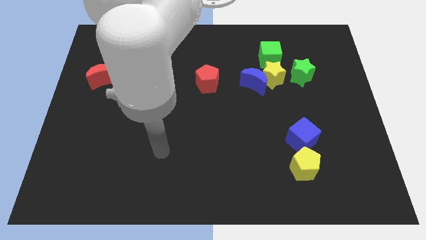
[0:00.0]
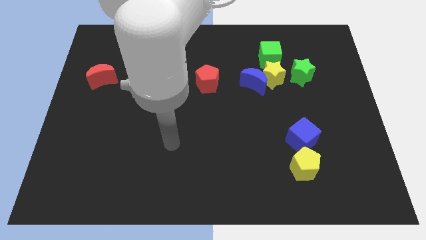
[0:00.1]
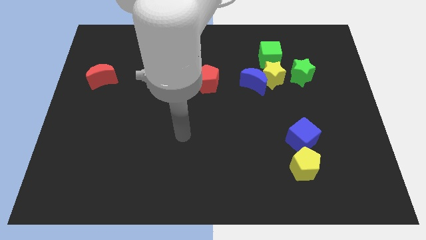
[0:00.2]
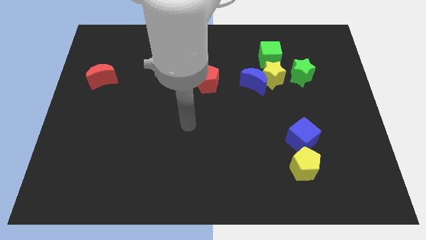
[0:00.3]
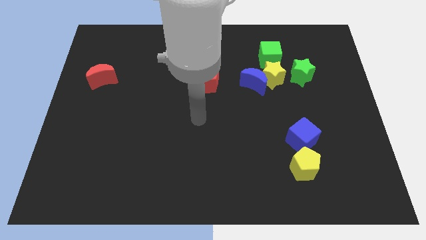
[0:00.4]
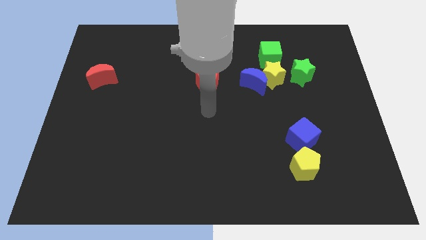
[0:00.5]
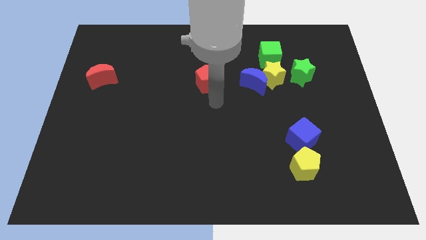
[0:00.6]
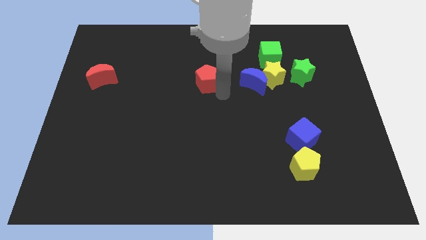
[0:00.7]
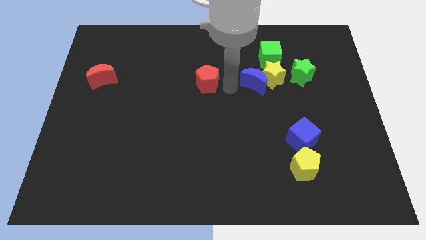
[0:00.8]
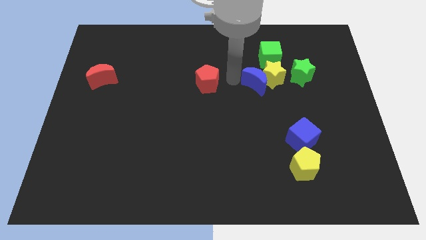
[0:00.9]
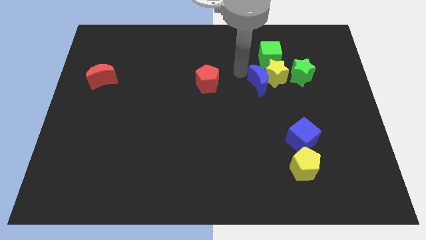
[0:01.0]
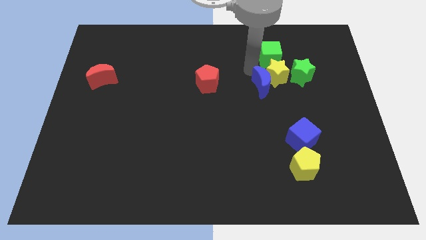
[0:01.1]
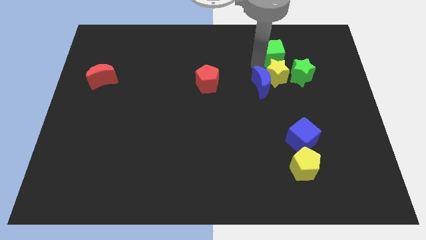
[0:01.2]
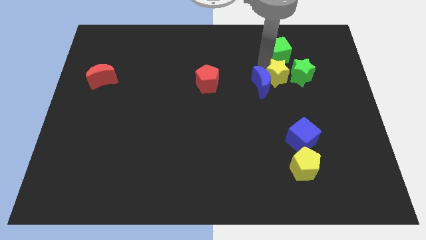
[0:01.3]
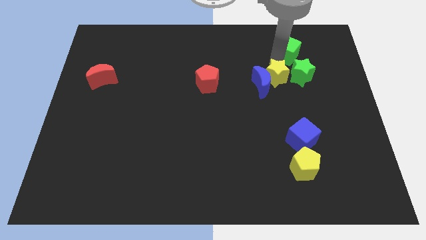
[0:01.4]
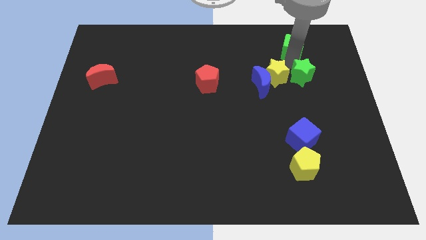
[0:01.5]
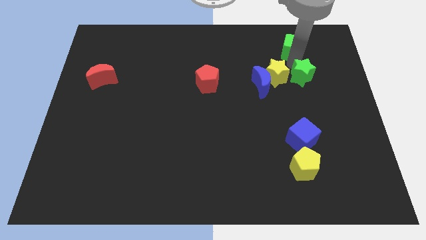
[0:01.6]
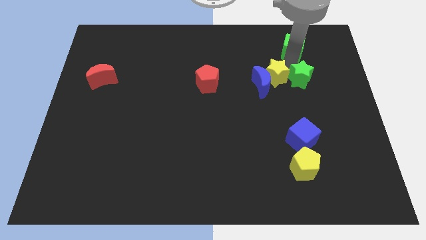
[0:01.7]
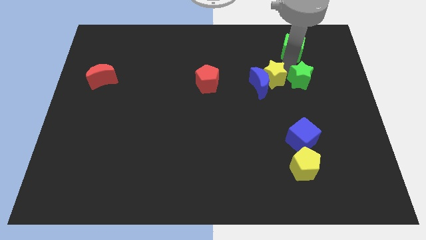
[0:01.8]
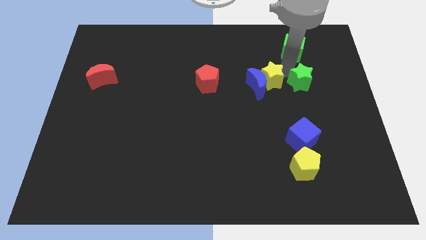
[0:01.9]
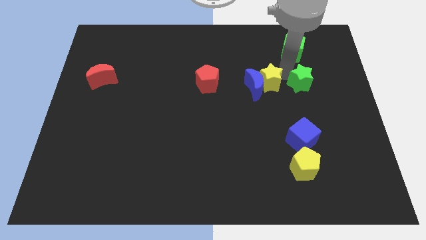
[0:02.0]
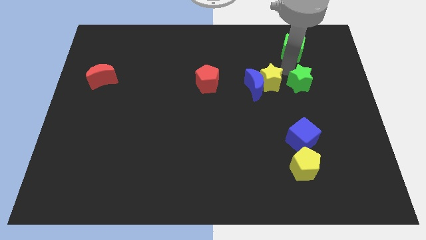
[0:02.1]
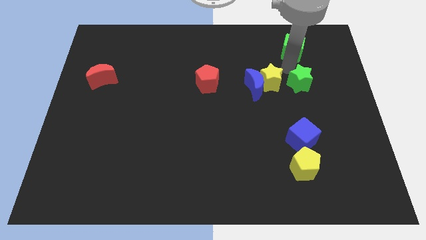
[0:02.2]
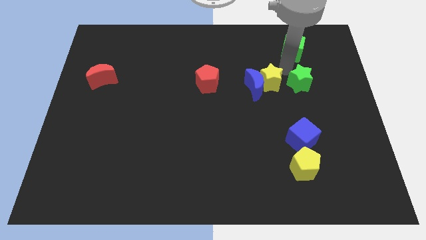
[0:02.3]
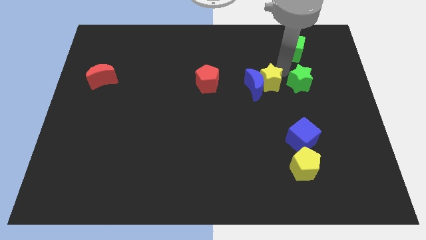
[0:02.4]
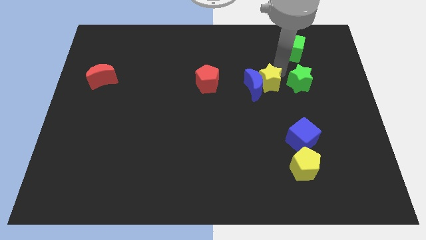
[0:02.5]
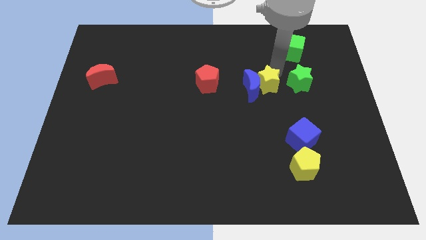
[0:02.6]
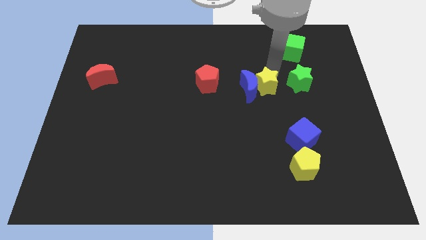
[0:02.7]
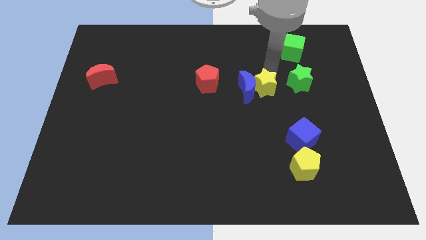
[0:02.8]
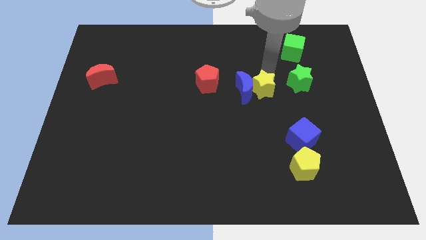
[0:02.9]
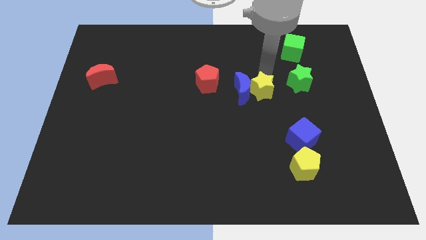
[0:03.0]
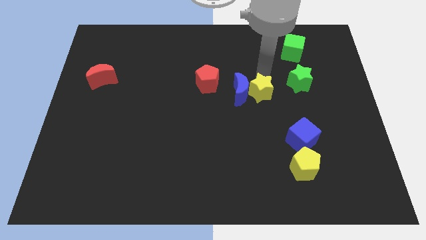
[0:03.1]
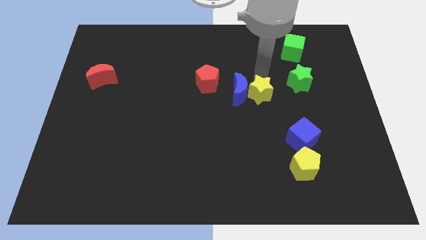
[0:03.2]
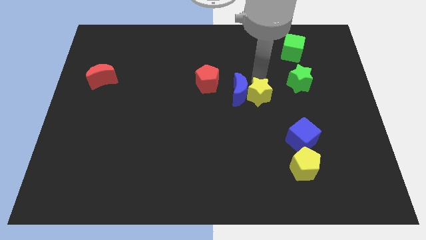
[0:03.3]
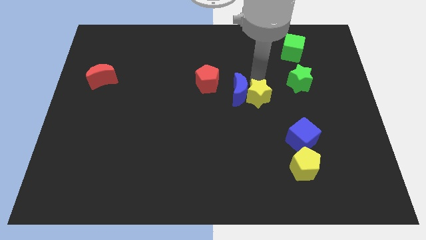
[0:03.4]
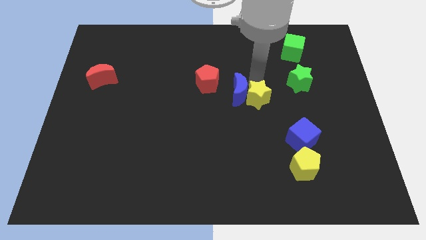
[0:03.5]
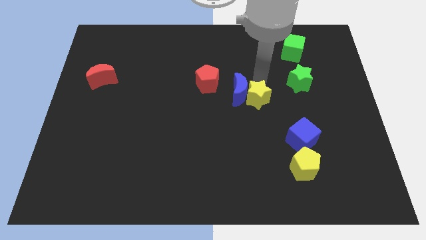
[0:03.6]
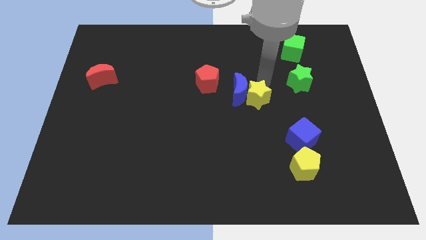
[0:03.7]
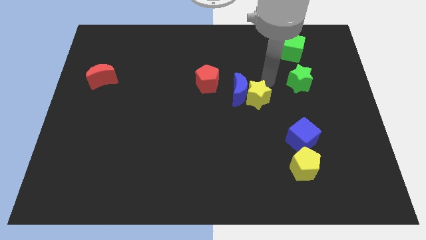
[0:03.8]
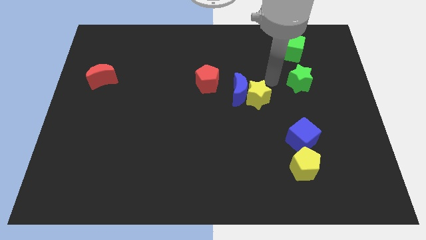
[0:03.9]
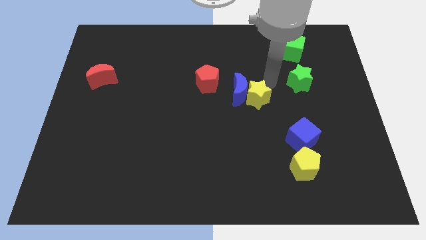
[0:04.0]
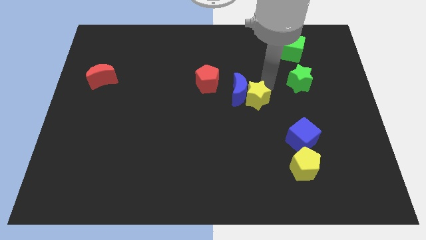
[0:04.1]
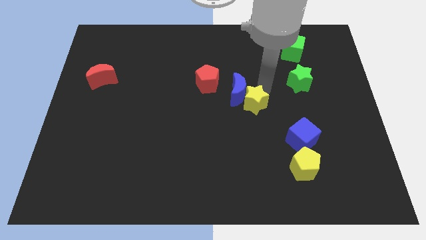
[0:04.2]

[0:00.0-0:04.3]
move the yellow star away from the blue moon, green cube, and green star

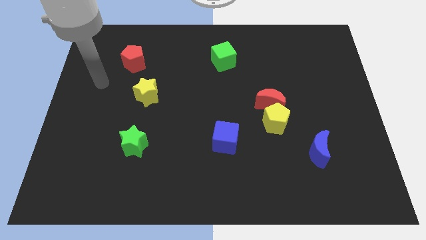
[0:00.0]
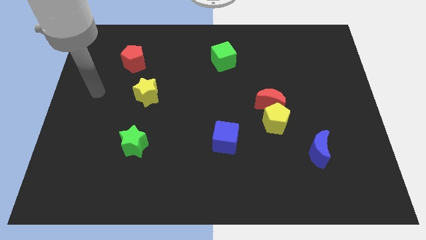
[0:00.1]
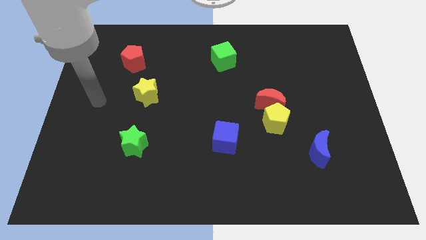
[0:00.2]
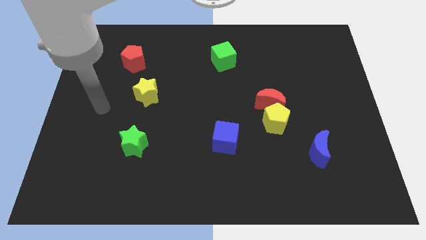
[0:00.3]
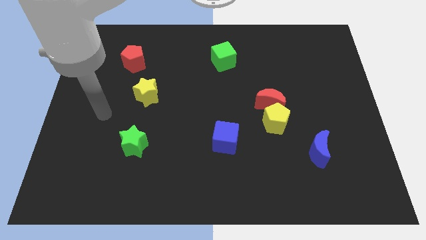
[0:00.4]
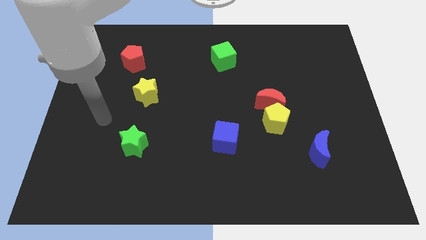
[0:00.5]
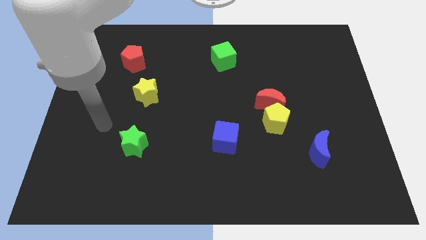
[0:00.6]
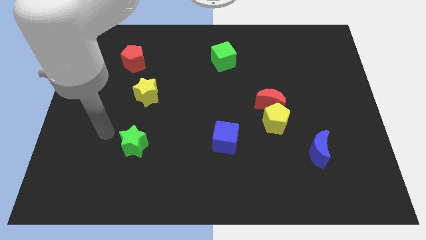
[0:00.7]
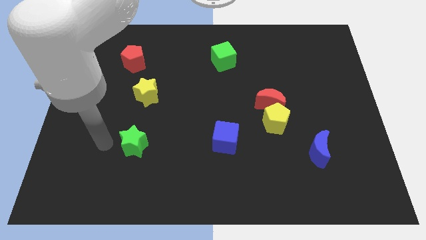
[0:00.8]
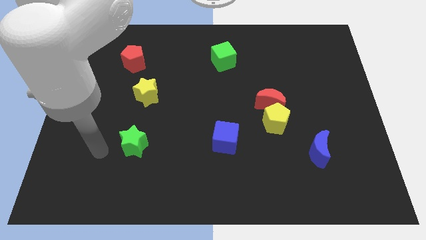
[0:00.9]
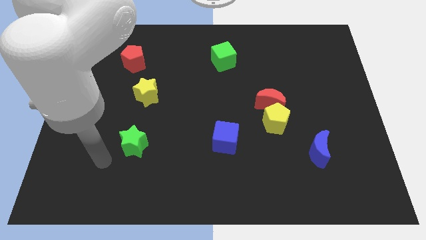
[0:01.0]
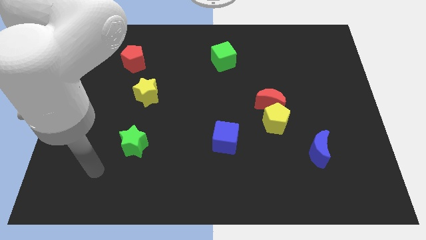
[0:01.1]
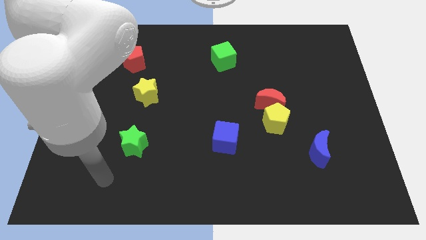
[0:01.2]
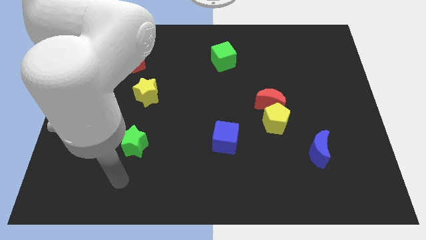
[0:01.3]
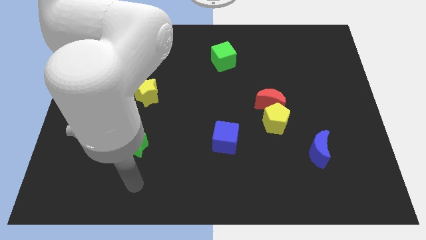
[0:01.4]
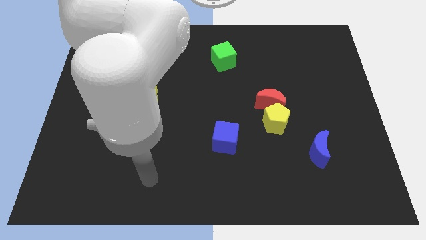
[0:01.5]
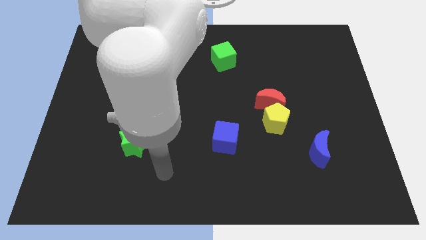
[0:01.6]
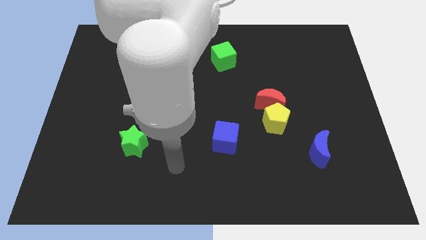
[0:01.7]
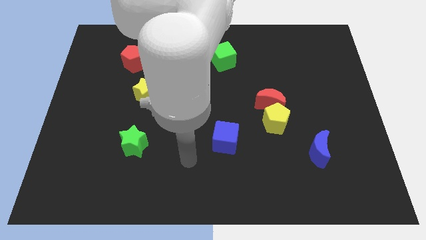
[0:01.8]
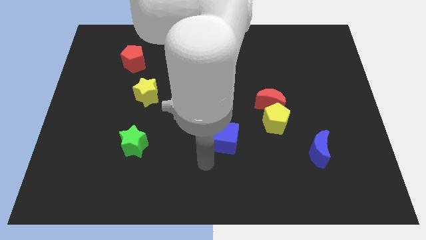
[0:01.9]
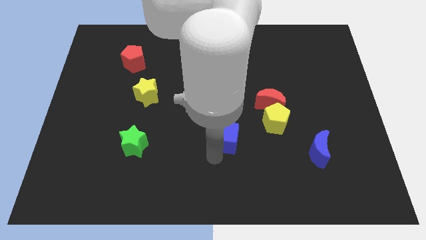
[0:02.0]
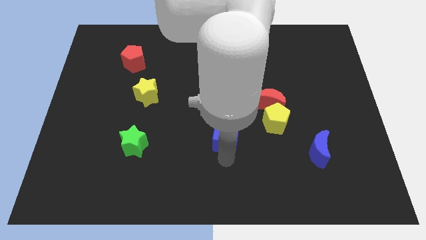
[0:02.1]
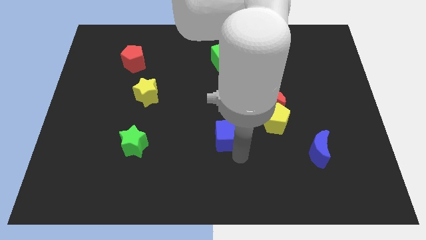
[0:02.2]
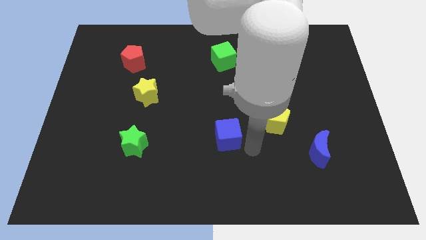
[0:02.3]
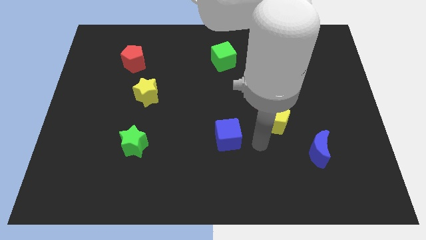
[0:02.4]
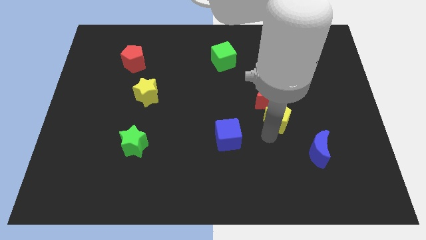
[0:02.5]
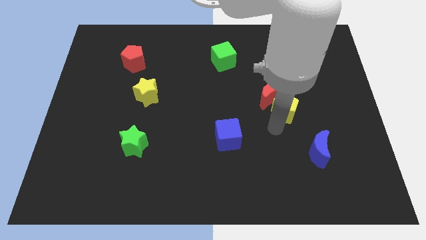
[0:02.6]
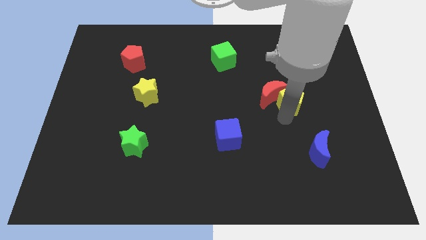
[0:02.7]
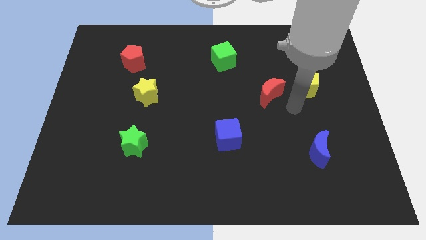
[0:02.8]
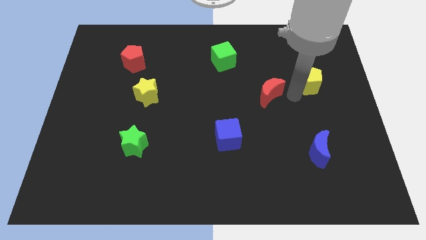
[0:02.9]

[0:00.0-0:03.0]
pull the red moon apart from the yellow pentagon

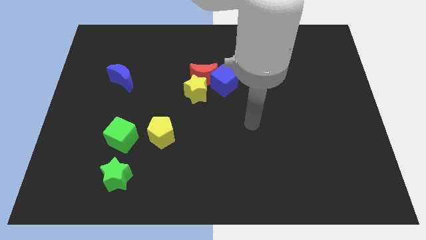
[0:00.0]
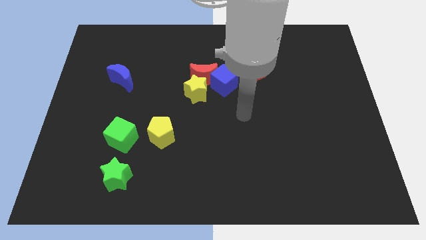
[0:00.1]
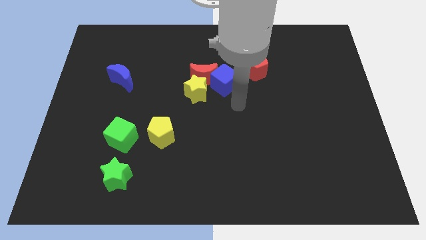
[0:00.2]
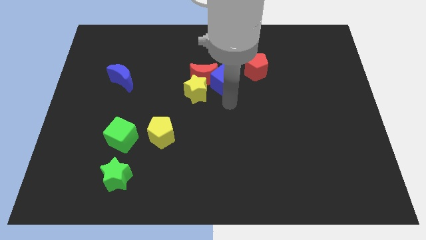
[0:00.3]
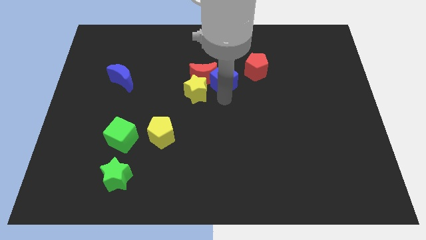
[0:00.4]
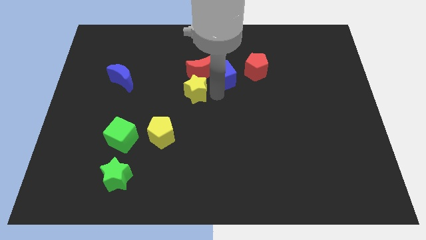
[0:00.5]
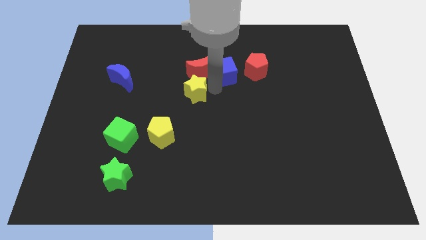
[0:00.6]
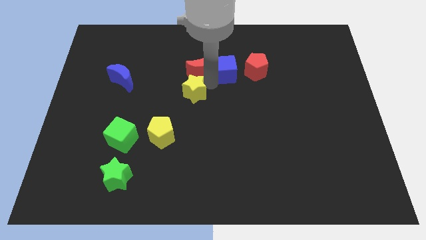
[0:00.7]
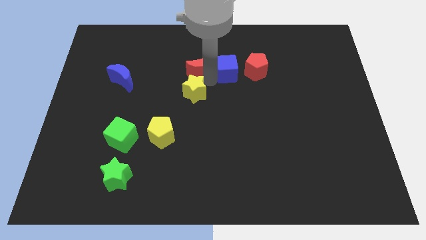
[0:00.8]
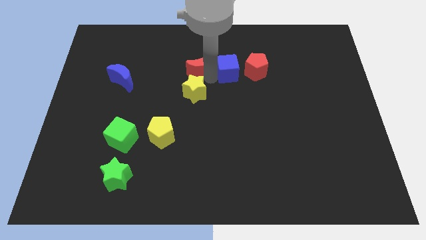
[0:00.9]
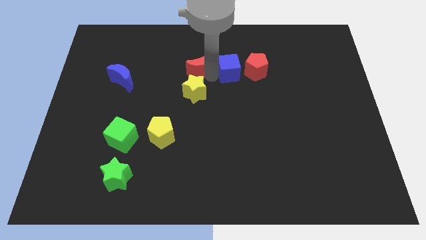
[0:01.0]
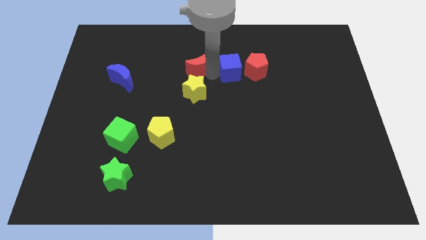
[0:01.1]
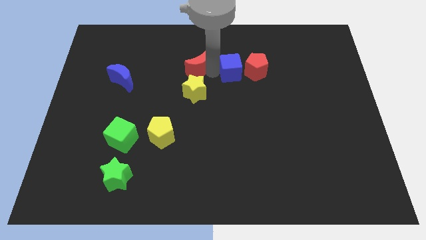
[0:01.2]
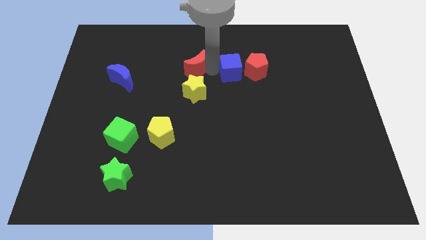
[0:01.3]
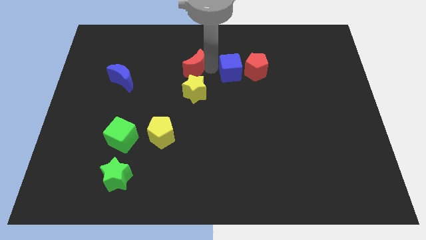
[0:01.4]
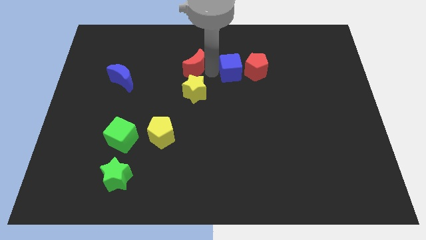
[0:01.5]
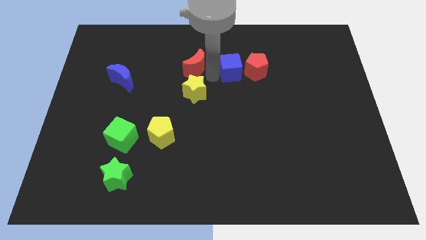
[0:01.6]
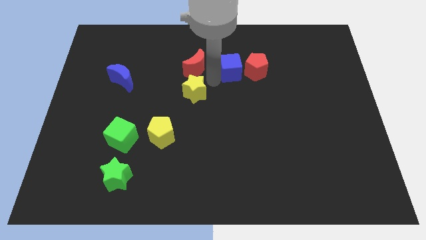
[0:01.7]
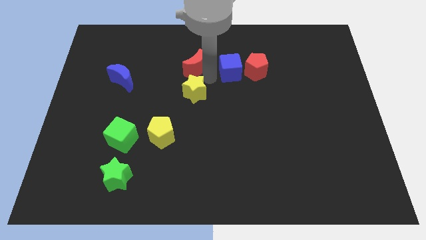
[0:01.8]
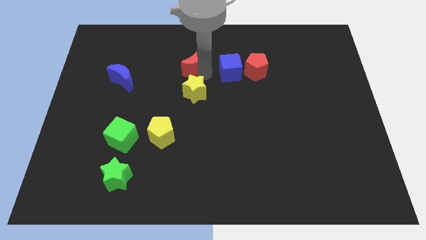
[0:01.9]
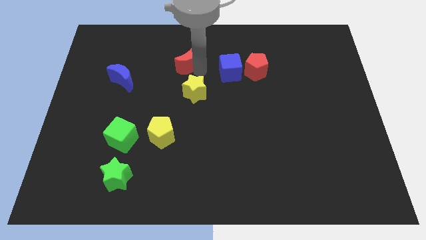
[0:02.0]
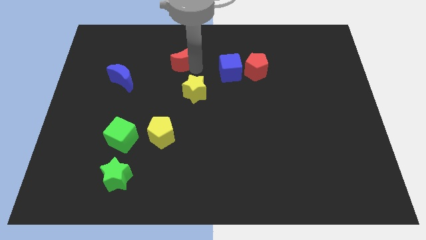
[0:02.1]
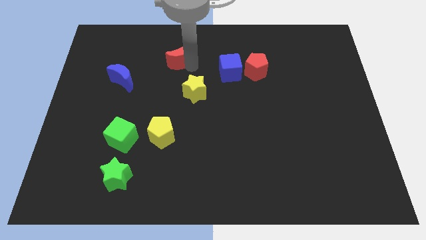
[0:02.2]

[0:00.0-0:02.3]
pull the red moon apart from the yellow star and blue cube

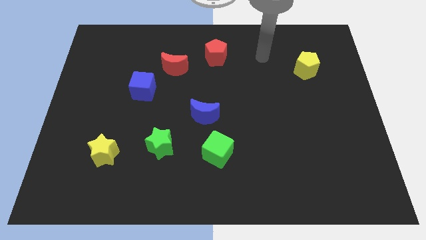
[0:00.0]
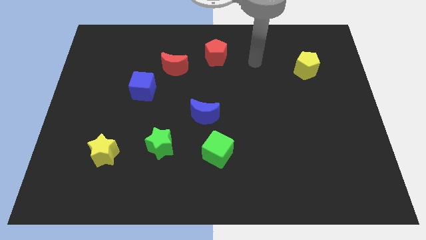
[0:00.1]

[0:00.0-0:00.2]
pull the red moon apart from the blue cube
